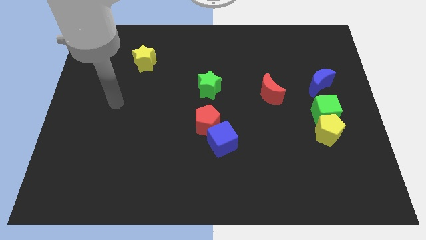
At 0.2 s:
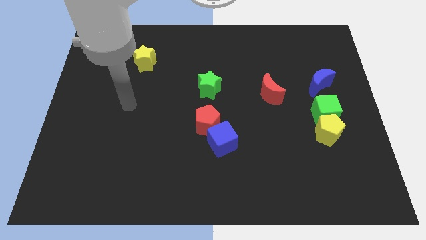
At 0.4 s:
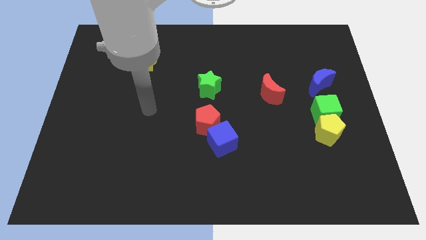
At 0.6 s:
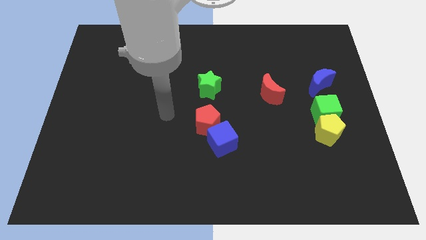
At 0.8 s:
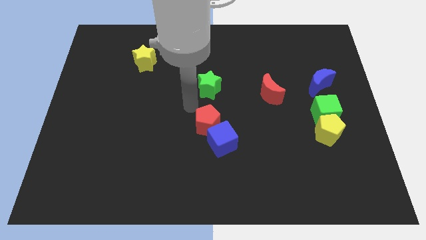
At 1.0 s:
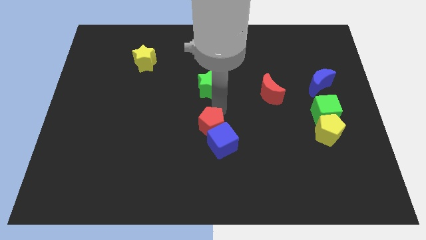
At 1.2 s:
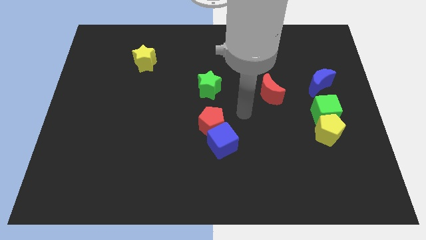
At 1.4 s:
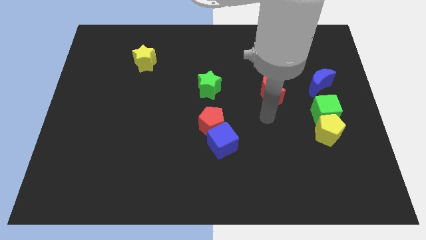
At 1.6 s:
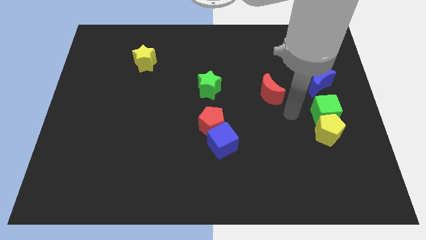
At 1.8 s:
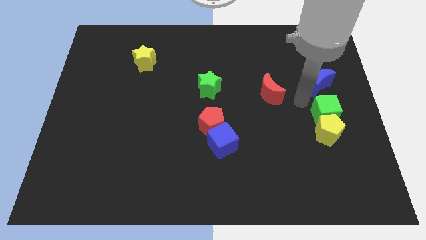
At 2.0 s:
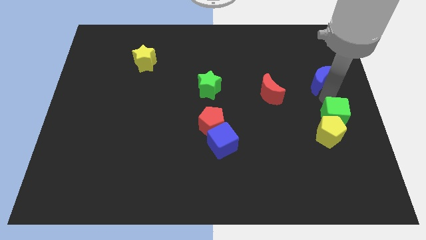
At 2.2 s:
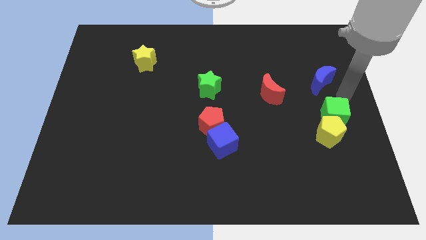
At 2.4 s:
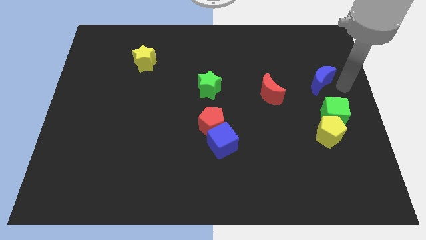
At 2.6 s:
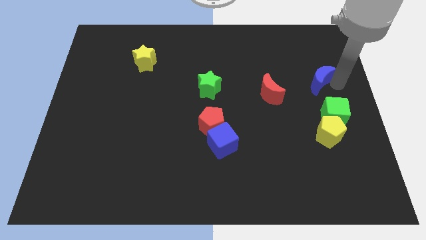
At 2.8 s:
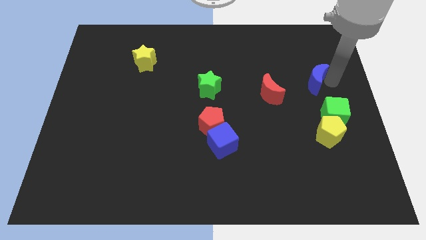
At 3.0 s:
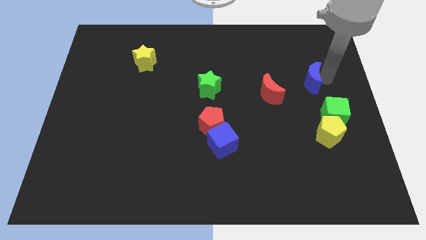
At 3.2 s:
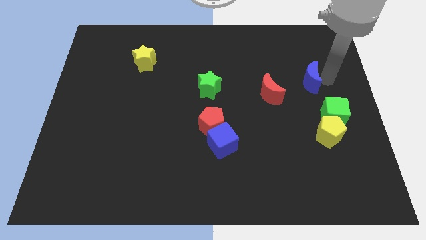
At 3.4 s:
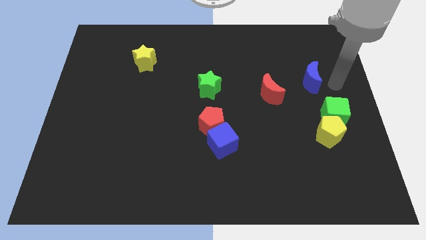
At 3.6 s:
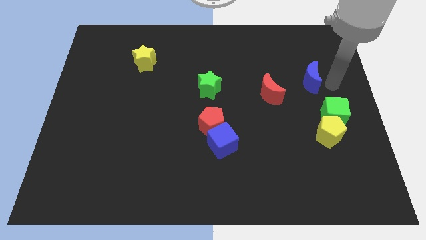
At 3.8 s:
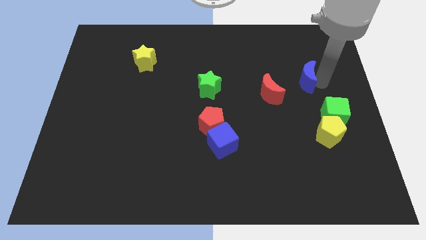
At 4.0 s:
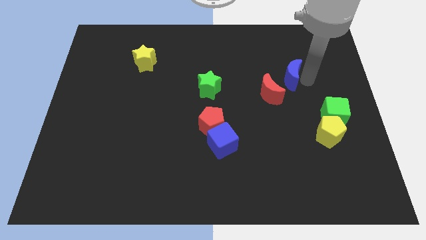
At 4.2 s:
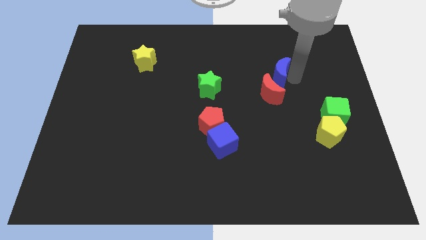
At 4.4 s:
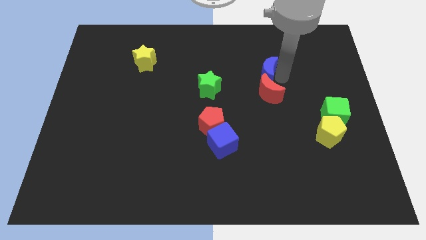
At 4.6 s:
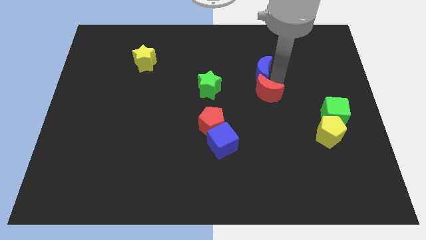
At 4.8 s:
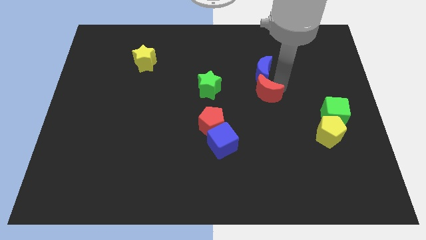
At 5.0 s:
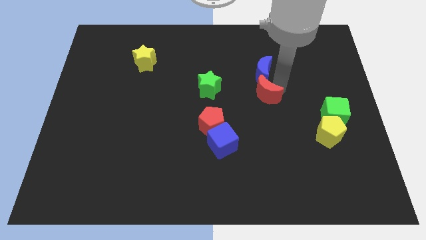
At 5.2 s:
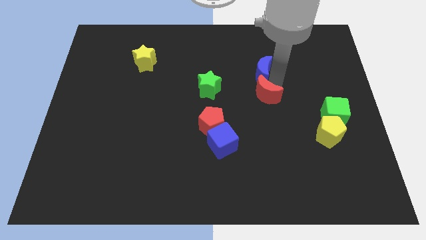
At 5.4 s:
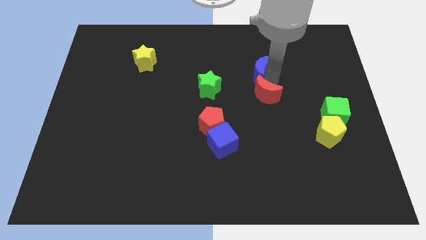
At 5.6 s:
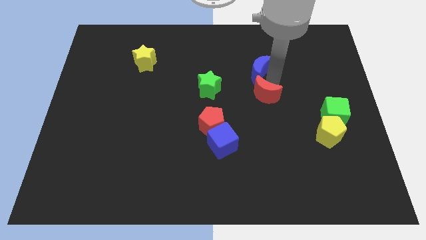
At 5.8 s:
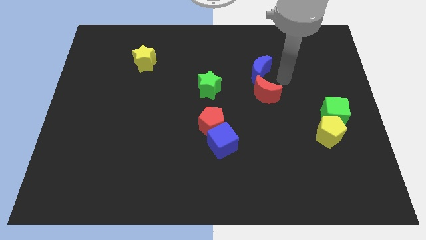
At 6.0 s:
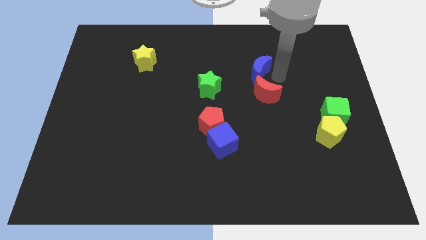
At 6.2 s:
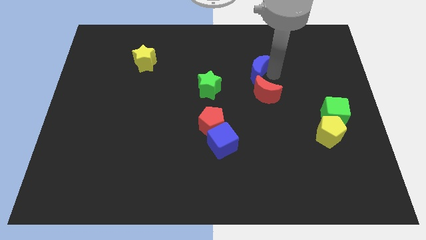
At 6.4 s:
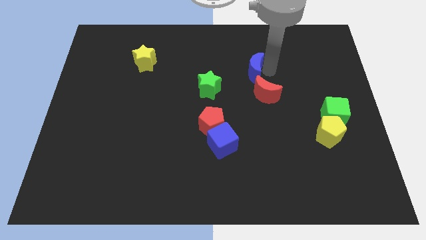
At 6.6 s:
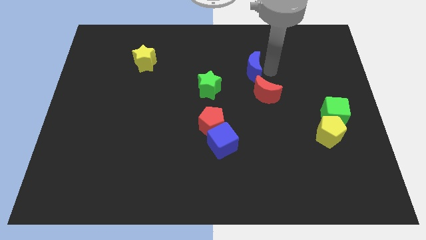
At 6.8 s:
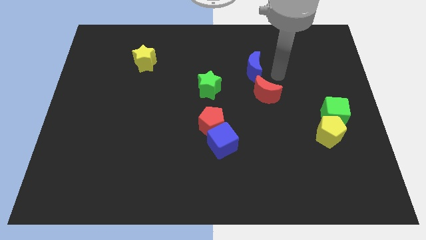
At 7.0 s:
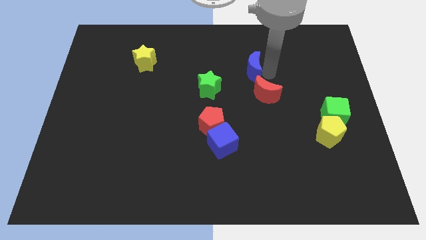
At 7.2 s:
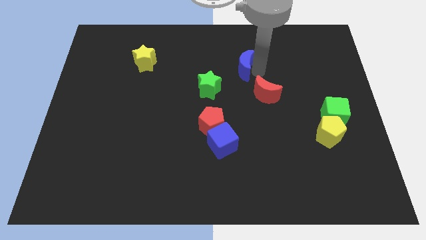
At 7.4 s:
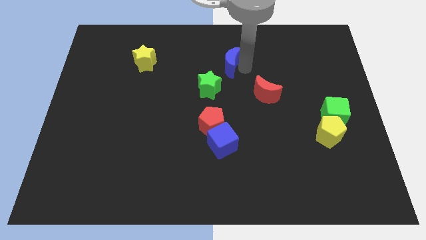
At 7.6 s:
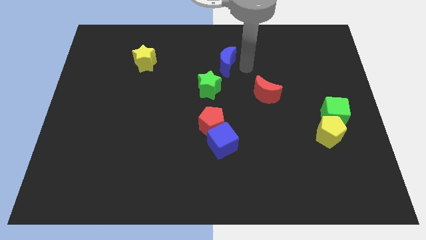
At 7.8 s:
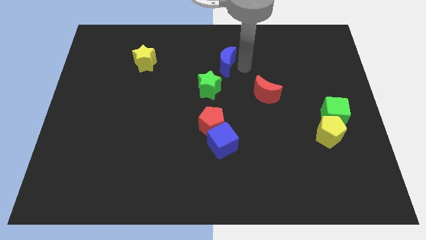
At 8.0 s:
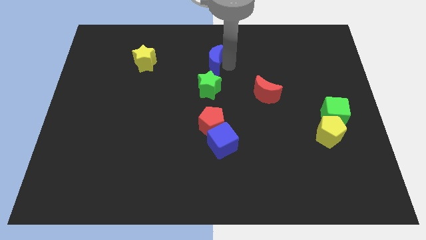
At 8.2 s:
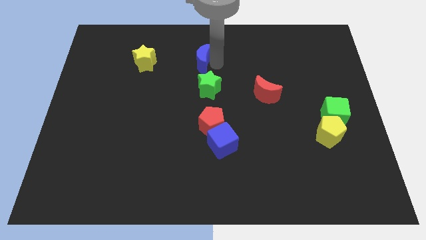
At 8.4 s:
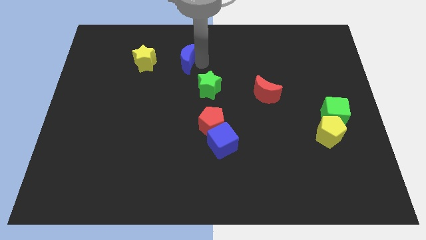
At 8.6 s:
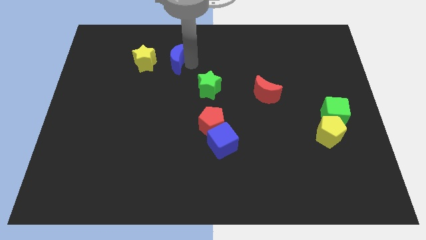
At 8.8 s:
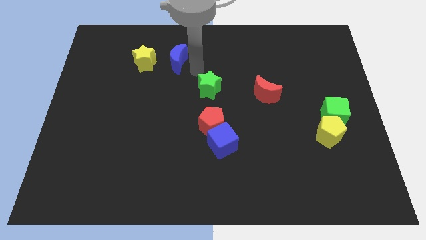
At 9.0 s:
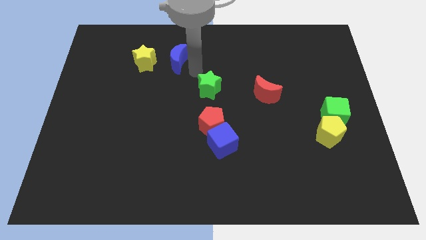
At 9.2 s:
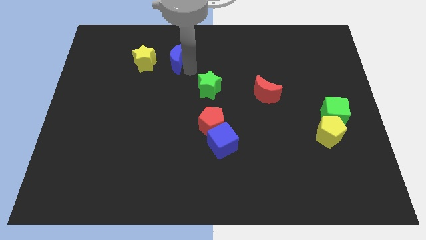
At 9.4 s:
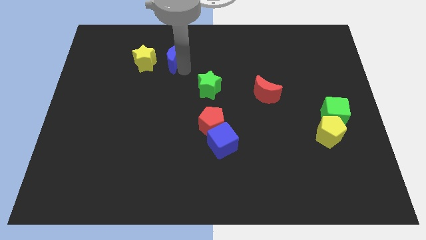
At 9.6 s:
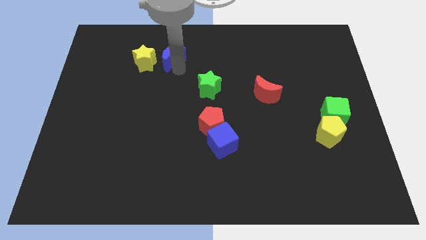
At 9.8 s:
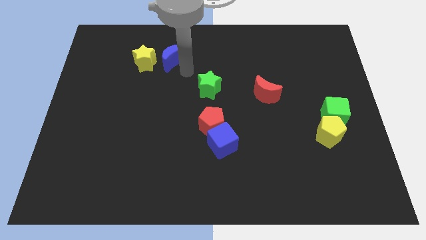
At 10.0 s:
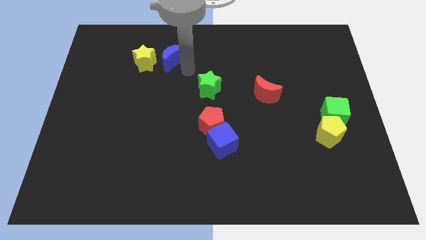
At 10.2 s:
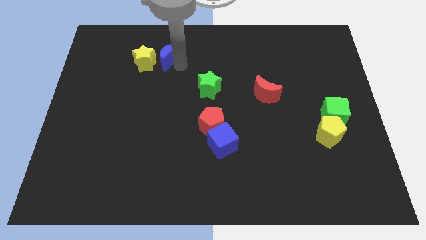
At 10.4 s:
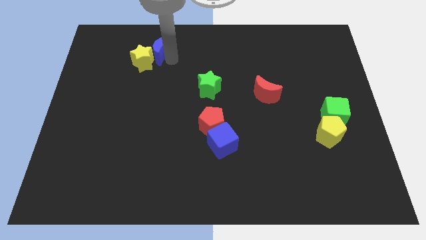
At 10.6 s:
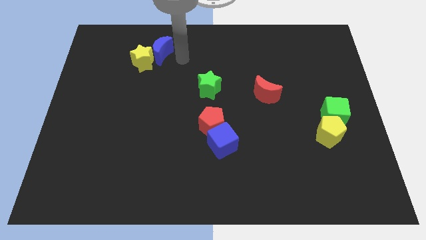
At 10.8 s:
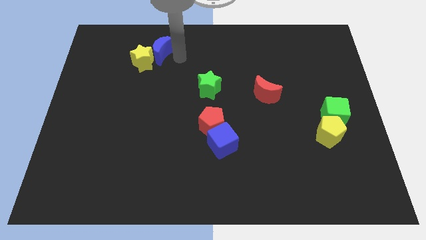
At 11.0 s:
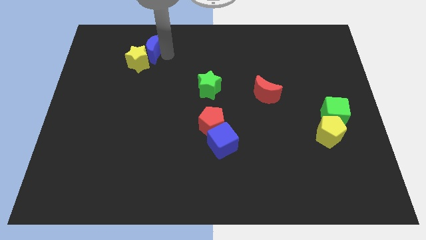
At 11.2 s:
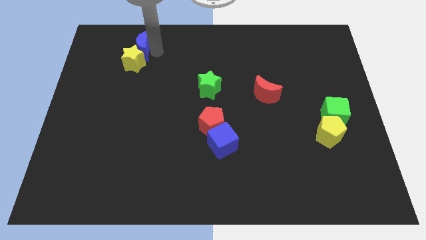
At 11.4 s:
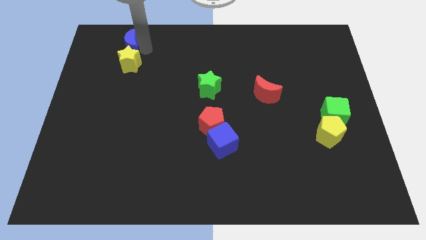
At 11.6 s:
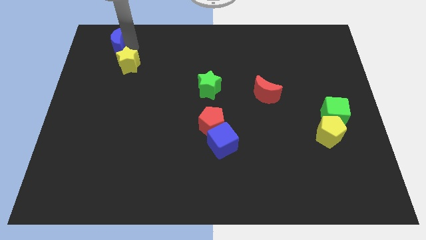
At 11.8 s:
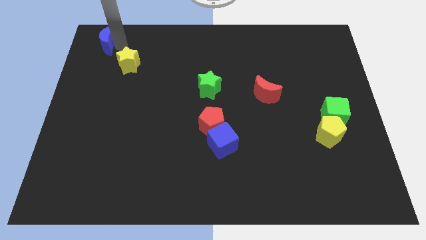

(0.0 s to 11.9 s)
put the blue moon to the top left corner

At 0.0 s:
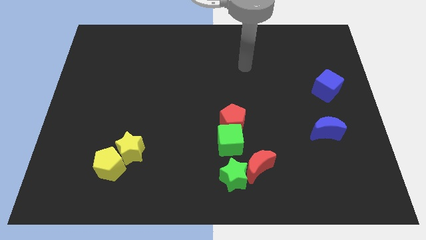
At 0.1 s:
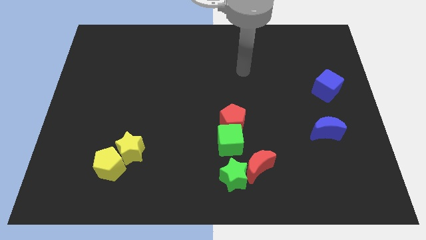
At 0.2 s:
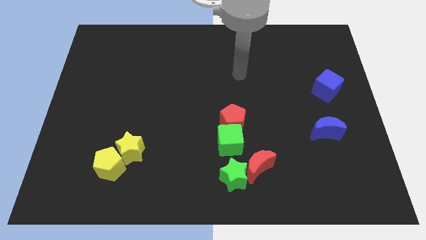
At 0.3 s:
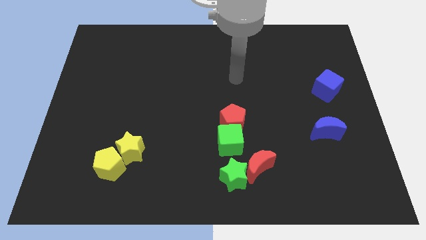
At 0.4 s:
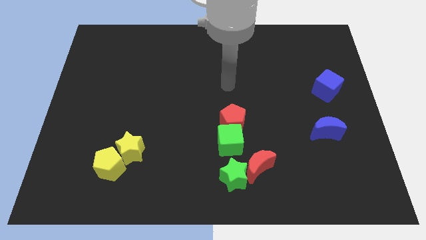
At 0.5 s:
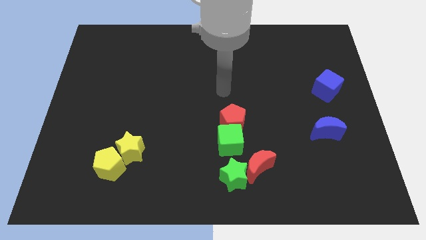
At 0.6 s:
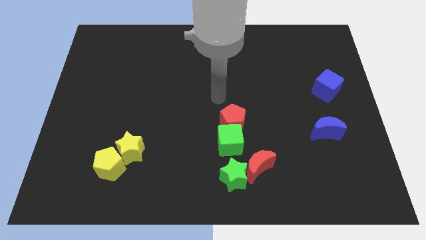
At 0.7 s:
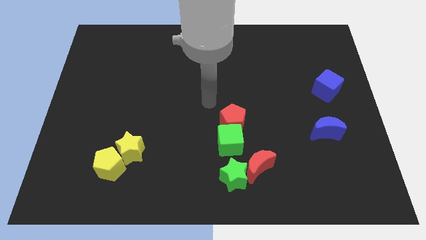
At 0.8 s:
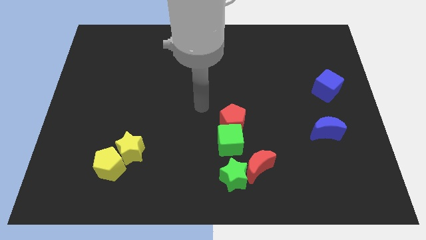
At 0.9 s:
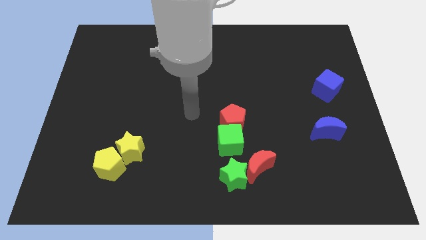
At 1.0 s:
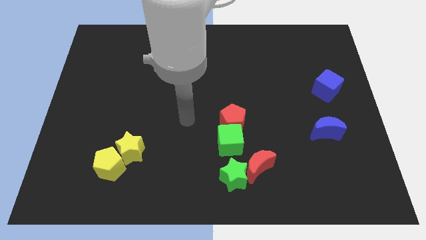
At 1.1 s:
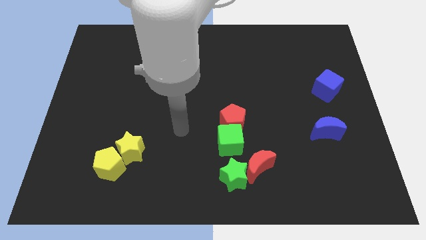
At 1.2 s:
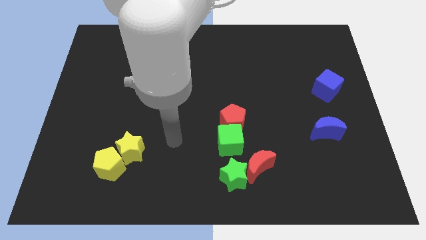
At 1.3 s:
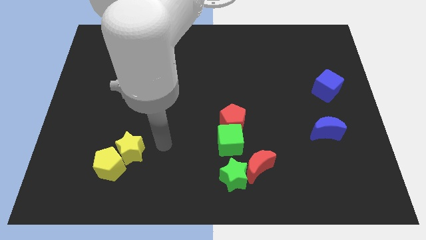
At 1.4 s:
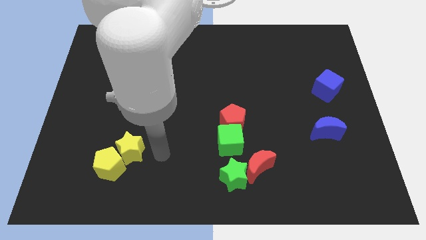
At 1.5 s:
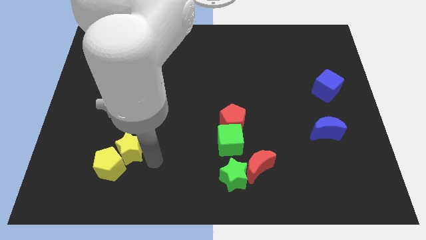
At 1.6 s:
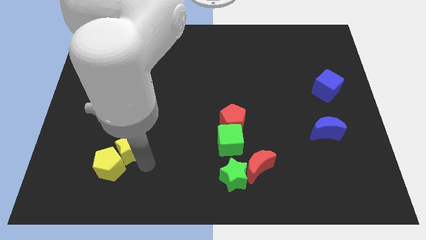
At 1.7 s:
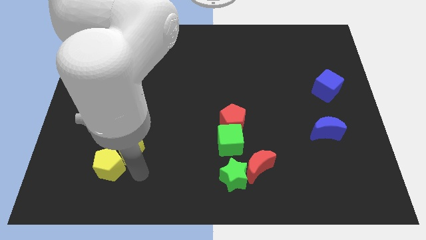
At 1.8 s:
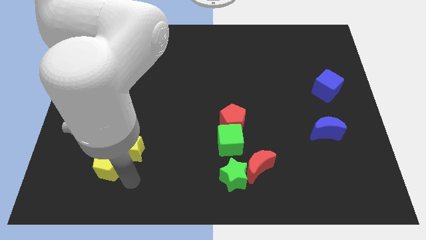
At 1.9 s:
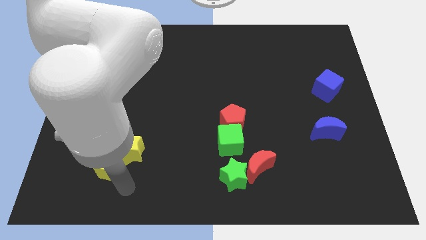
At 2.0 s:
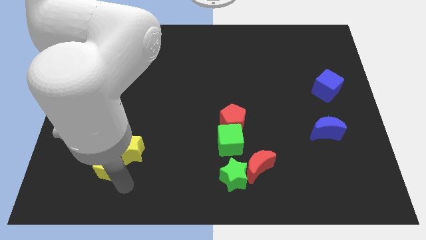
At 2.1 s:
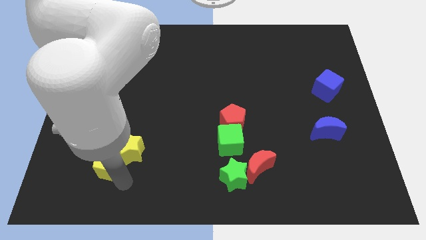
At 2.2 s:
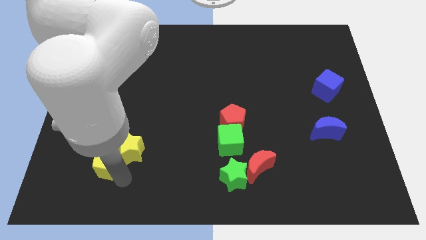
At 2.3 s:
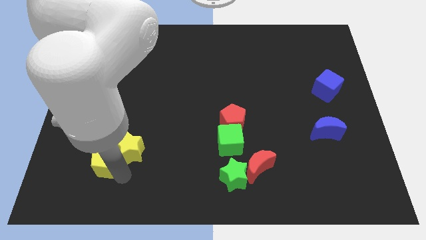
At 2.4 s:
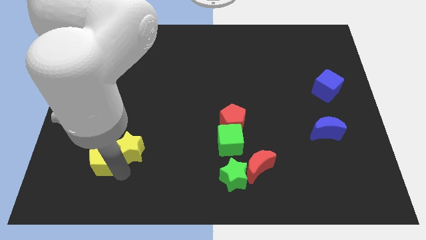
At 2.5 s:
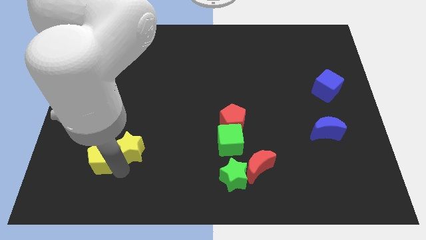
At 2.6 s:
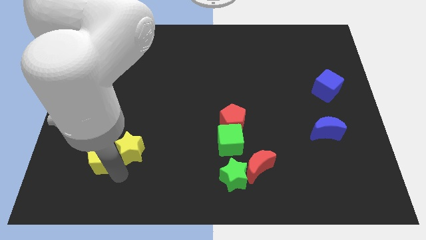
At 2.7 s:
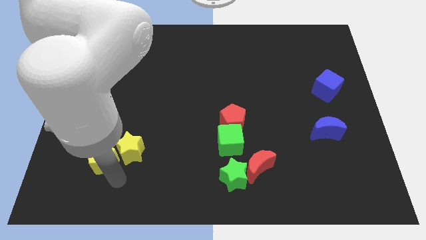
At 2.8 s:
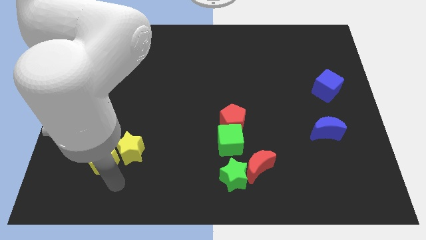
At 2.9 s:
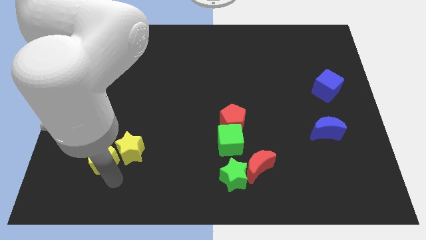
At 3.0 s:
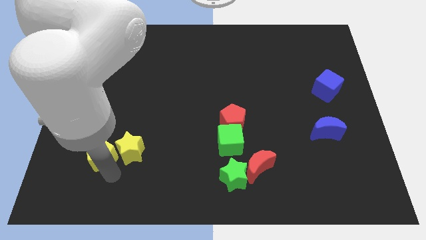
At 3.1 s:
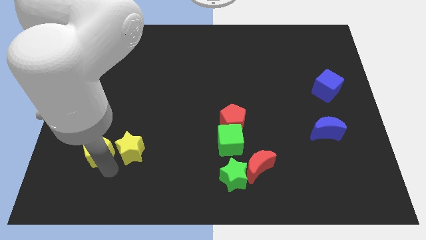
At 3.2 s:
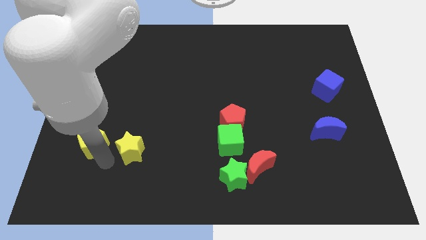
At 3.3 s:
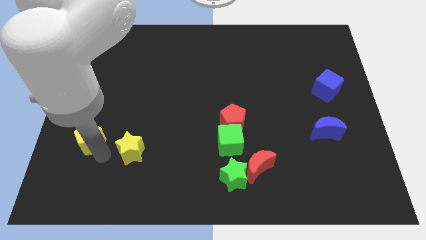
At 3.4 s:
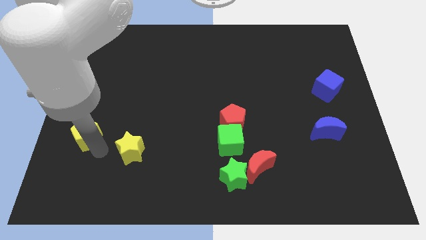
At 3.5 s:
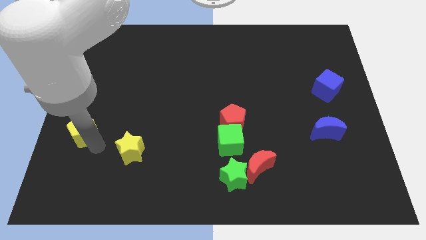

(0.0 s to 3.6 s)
move the yellow pentagon to the left side of the board
